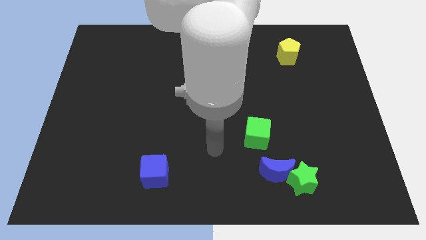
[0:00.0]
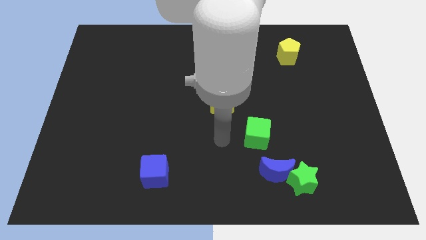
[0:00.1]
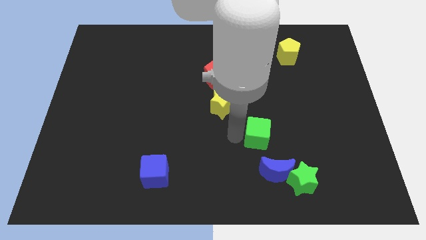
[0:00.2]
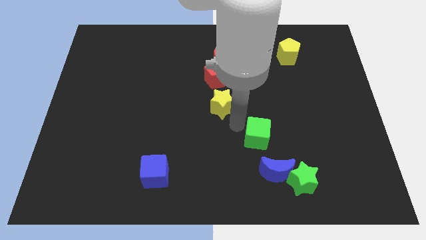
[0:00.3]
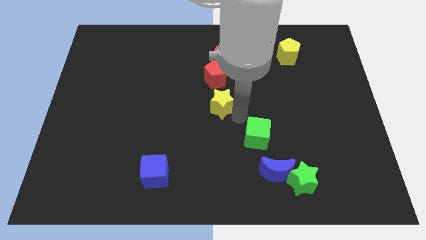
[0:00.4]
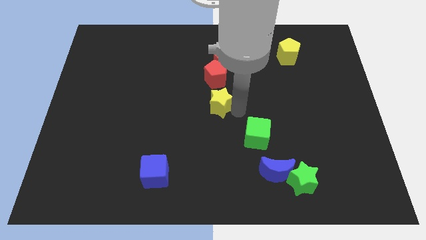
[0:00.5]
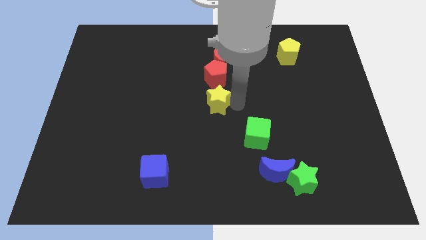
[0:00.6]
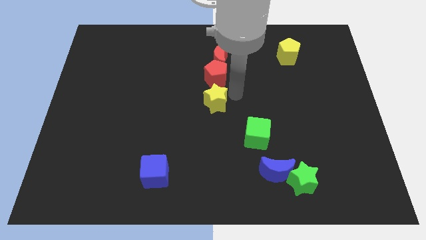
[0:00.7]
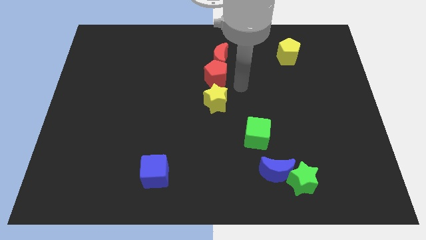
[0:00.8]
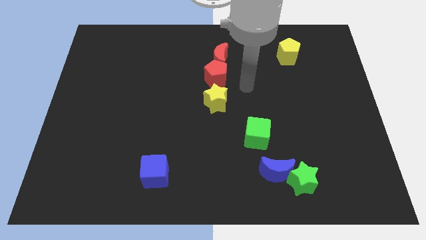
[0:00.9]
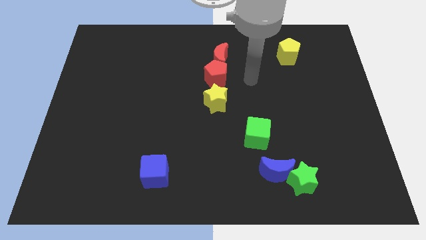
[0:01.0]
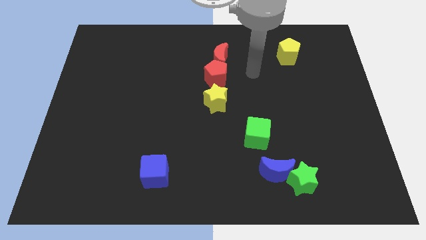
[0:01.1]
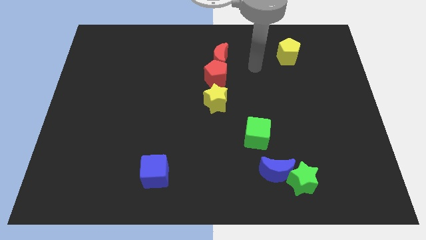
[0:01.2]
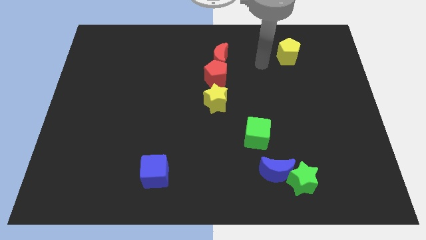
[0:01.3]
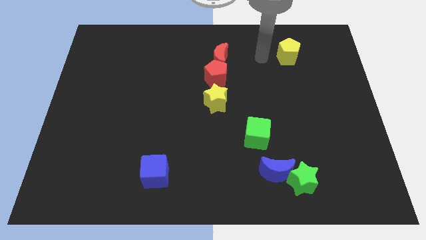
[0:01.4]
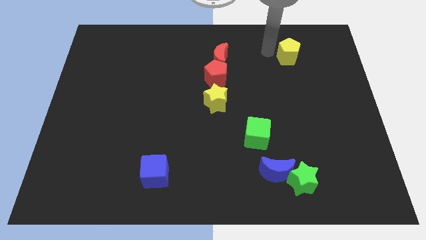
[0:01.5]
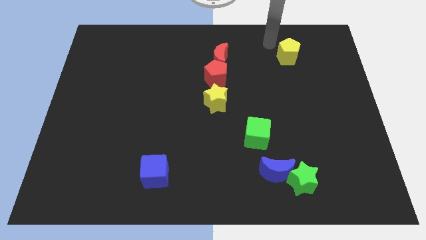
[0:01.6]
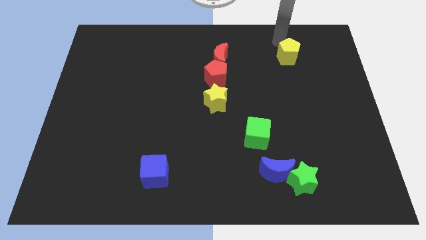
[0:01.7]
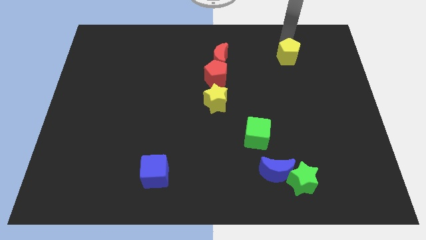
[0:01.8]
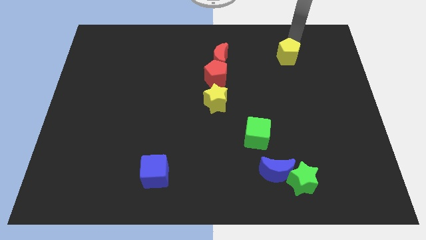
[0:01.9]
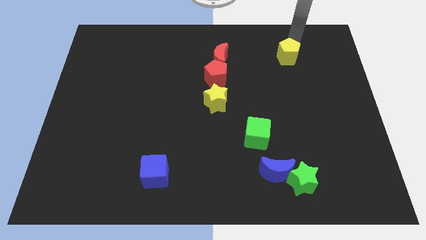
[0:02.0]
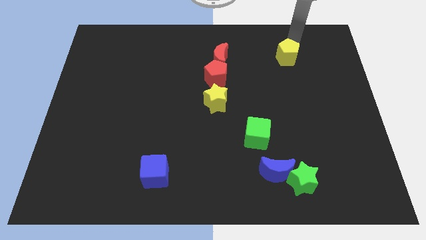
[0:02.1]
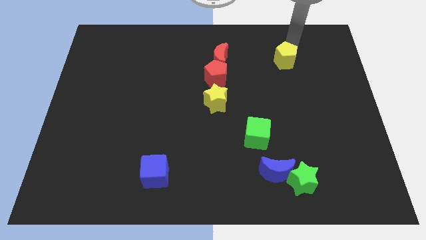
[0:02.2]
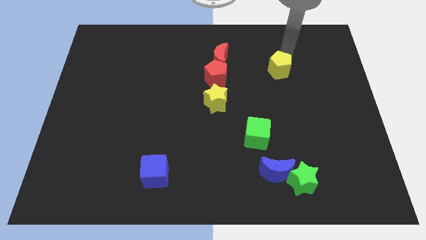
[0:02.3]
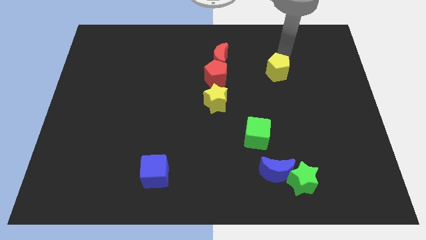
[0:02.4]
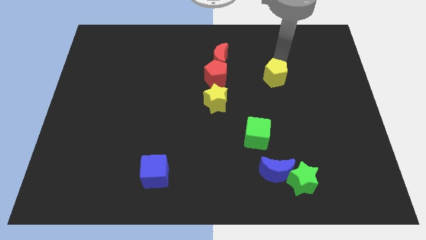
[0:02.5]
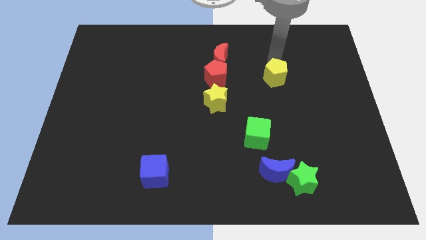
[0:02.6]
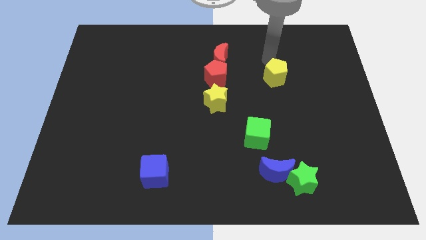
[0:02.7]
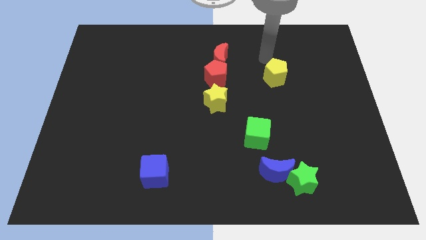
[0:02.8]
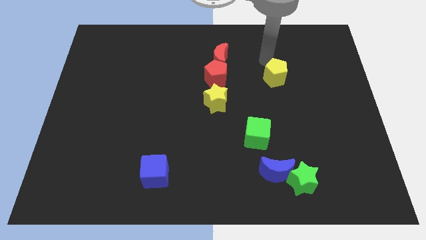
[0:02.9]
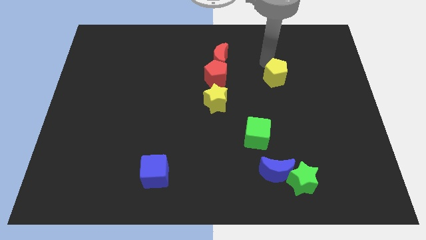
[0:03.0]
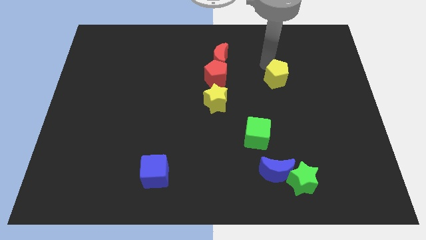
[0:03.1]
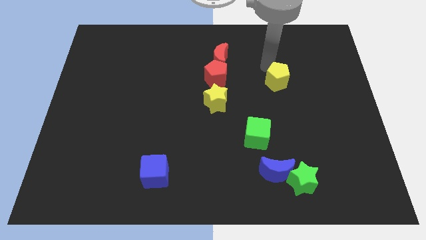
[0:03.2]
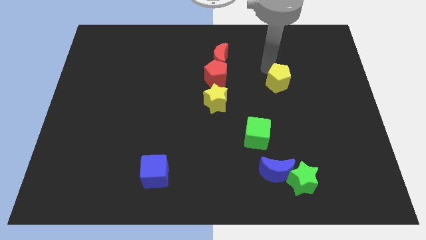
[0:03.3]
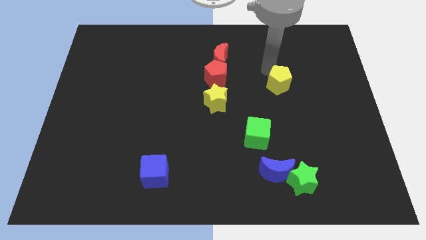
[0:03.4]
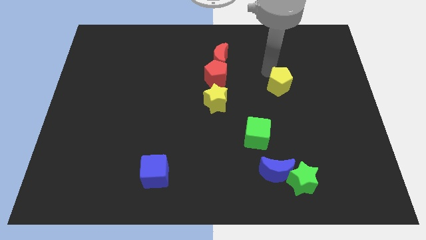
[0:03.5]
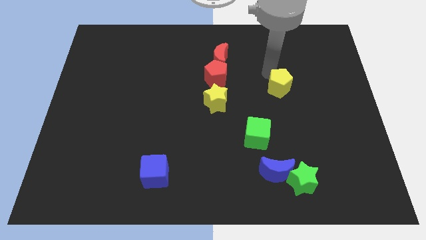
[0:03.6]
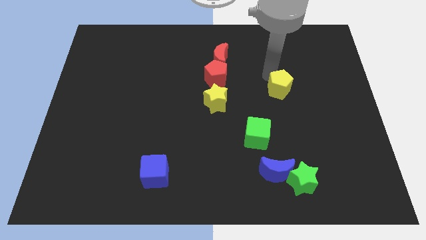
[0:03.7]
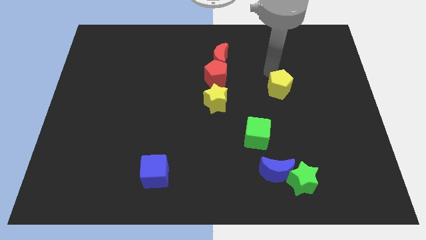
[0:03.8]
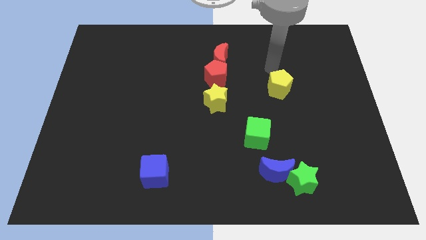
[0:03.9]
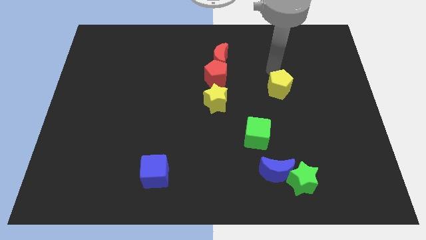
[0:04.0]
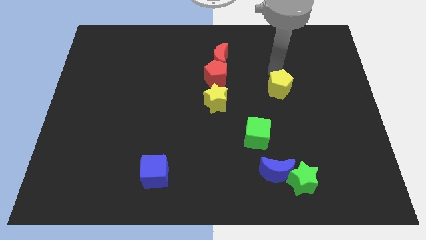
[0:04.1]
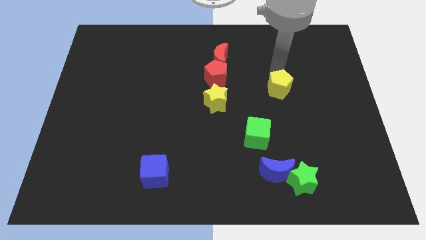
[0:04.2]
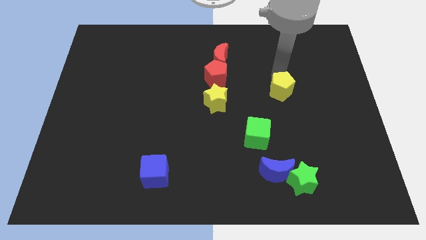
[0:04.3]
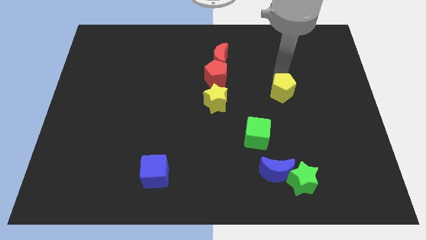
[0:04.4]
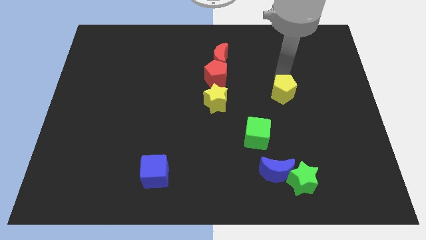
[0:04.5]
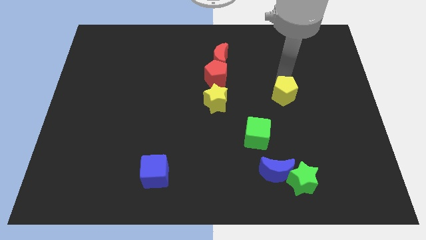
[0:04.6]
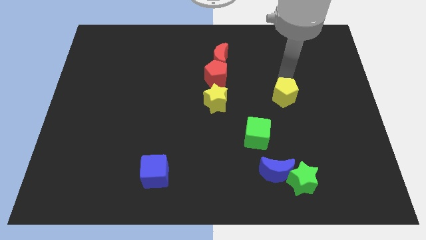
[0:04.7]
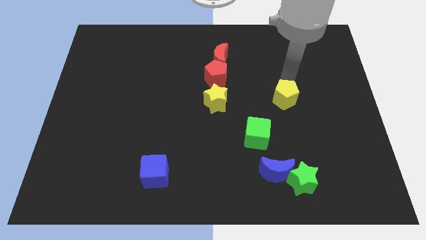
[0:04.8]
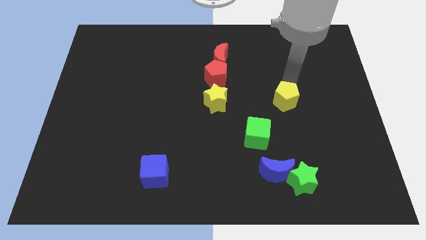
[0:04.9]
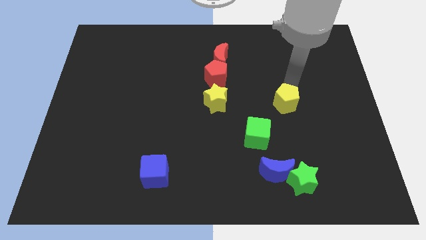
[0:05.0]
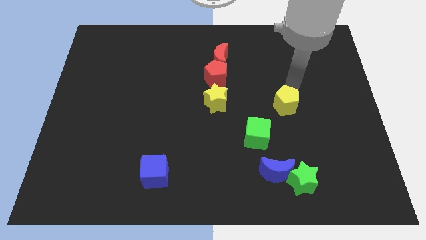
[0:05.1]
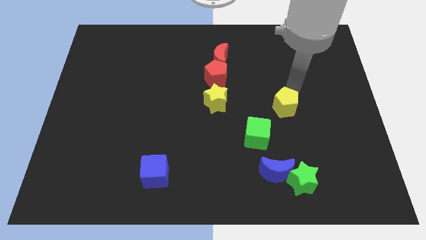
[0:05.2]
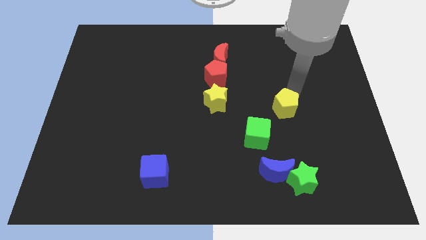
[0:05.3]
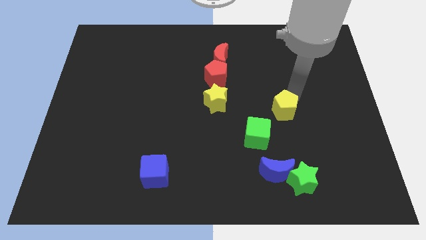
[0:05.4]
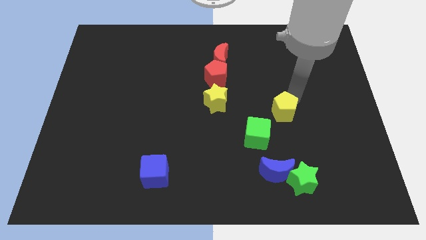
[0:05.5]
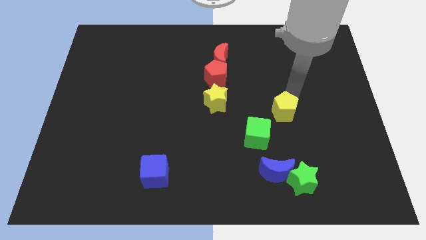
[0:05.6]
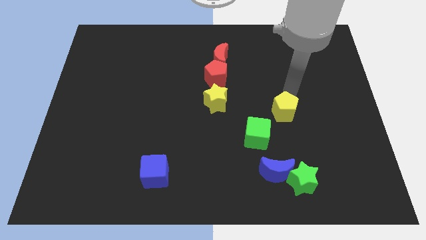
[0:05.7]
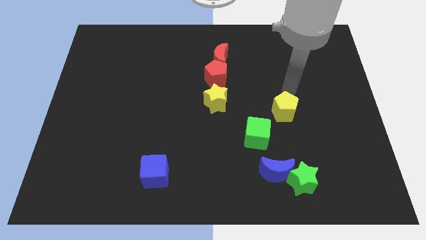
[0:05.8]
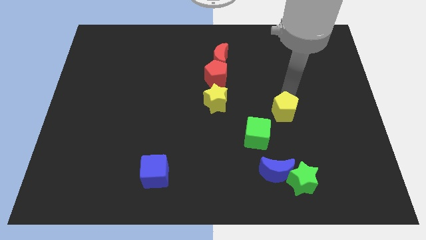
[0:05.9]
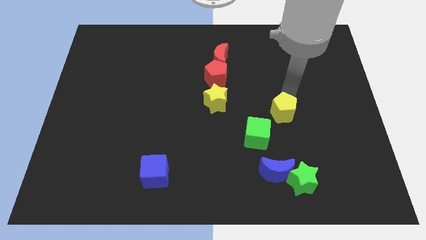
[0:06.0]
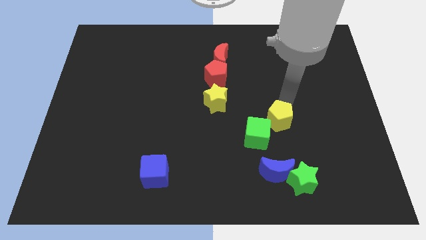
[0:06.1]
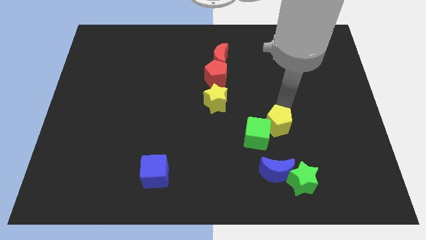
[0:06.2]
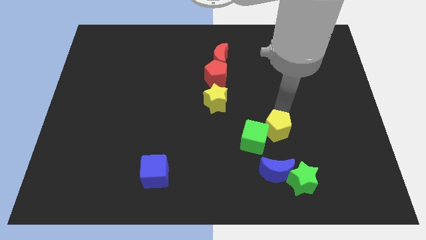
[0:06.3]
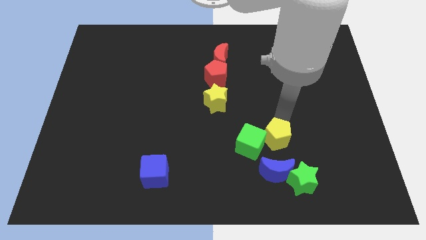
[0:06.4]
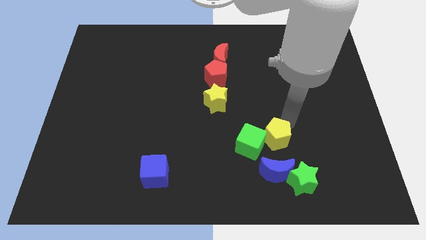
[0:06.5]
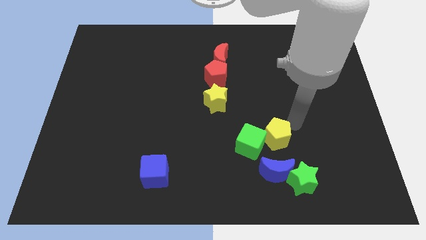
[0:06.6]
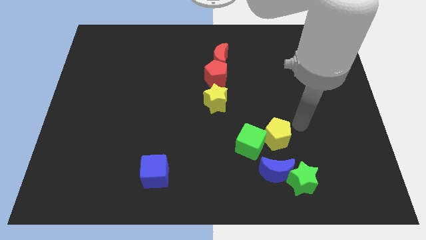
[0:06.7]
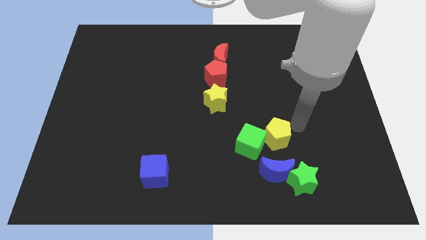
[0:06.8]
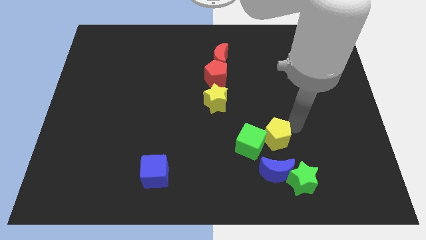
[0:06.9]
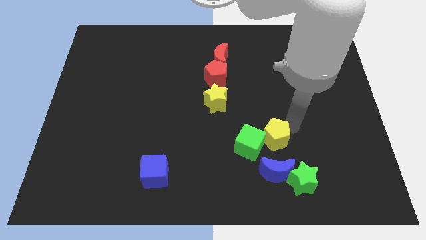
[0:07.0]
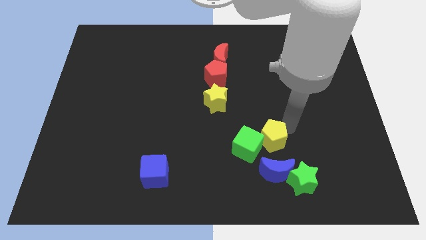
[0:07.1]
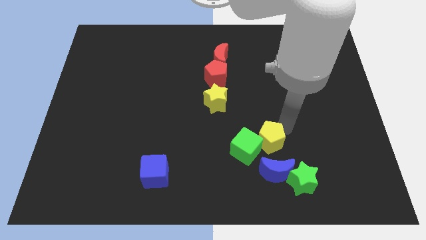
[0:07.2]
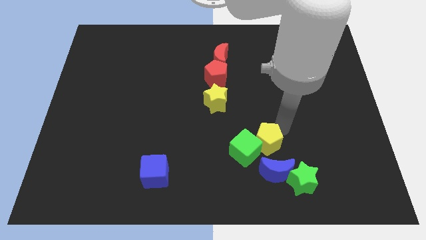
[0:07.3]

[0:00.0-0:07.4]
move the yellow pentagon diagonally up and to the left of the blue moon

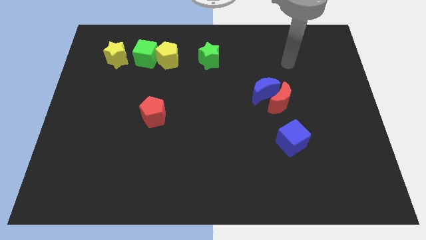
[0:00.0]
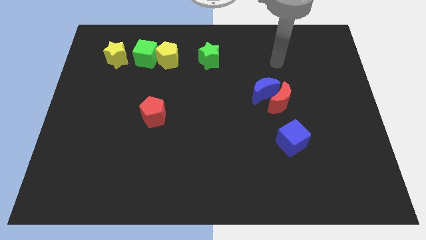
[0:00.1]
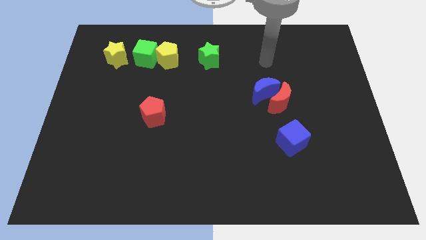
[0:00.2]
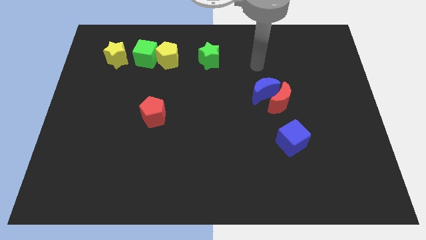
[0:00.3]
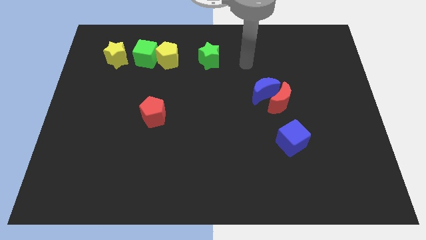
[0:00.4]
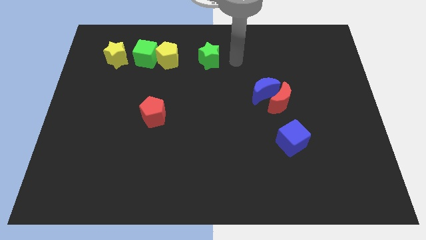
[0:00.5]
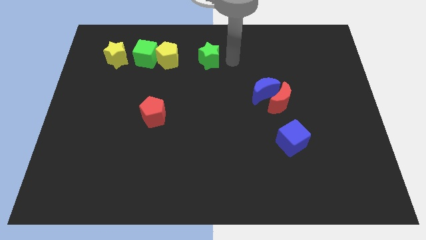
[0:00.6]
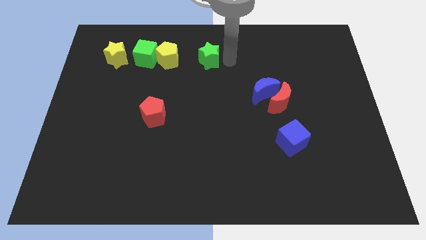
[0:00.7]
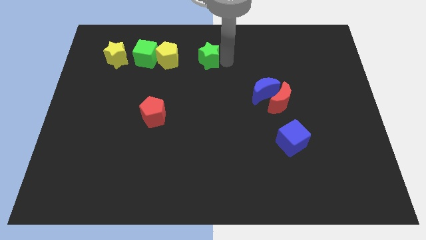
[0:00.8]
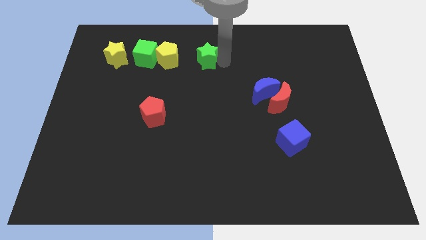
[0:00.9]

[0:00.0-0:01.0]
move the green star to the right of the green cube
